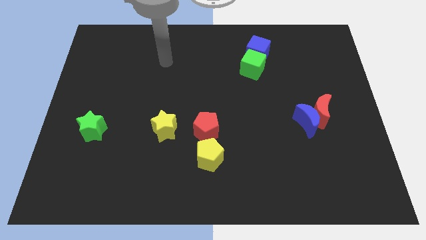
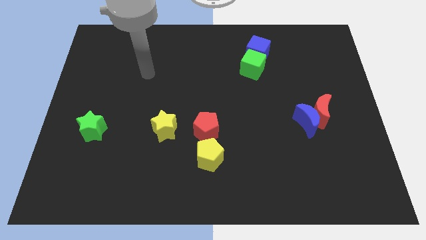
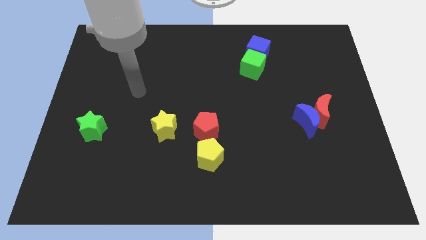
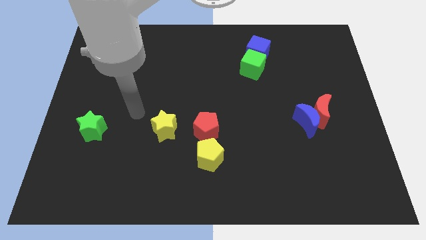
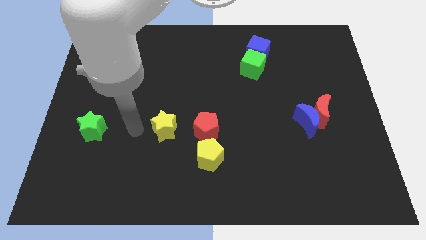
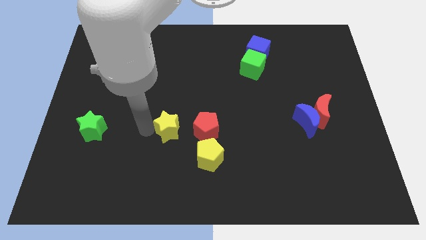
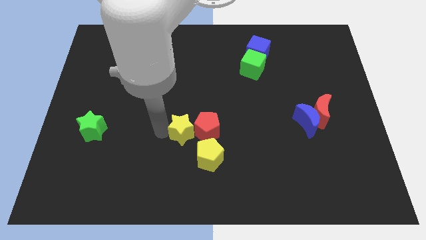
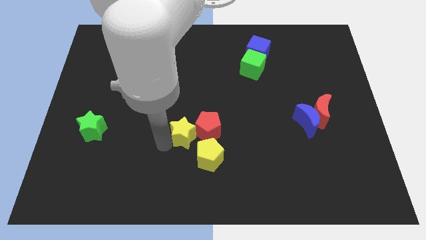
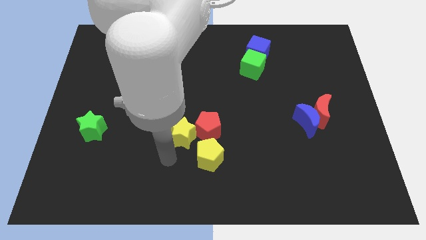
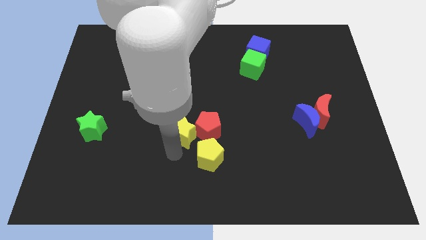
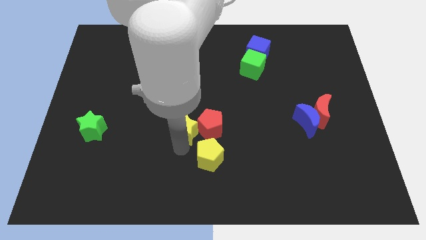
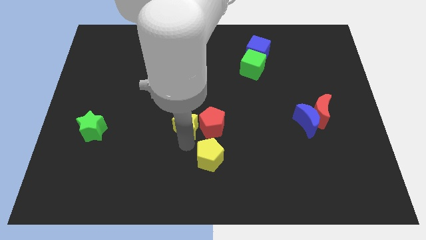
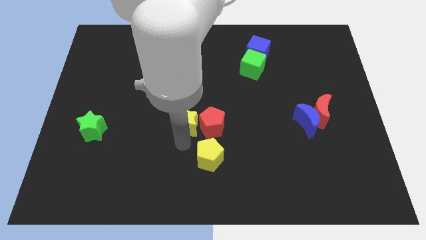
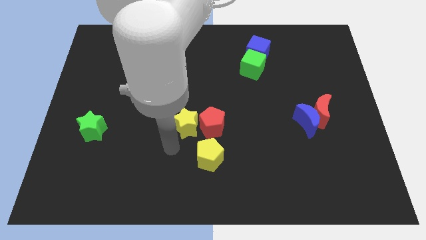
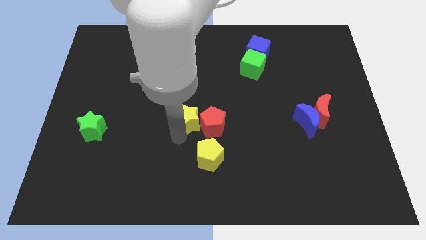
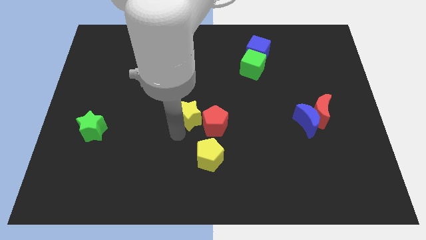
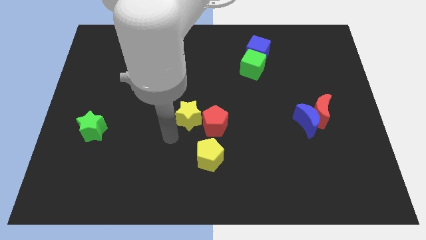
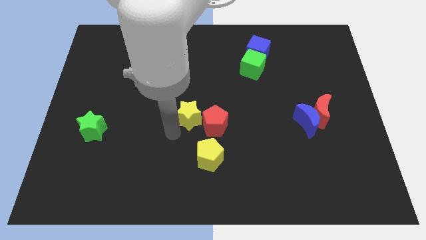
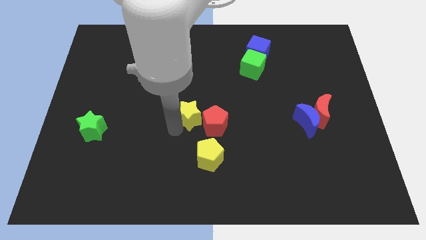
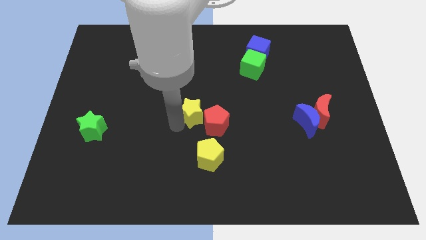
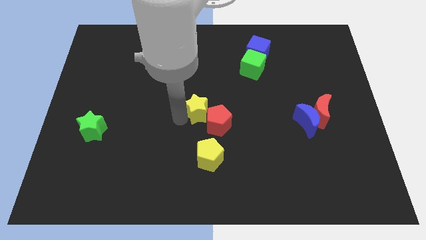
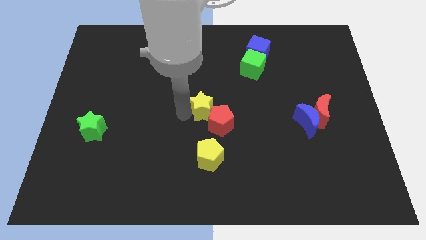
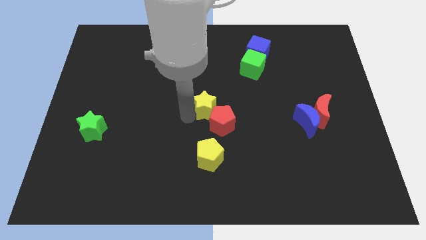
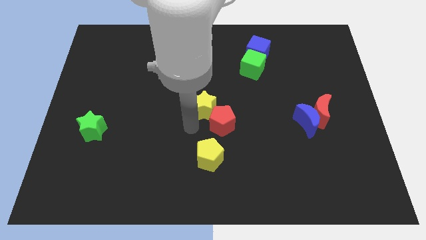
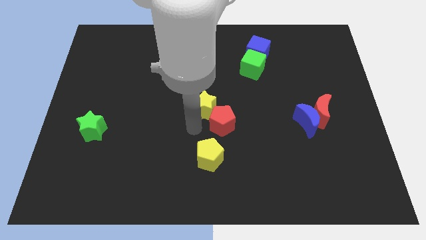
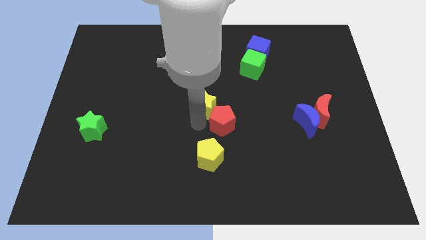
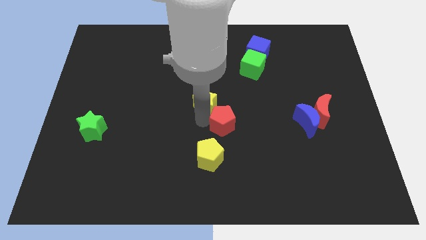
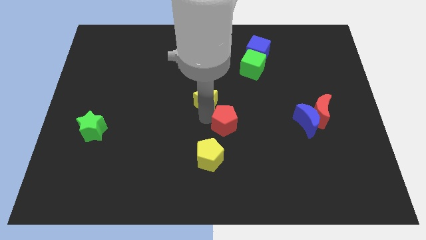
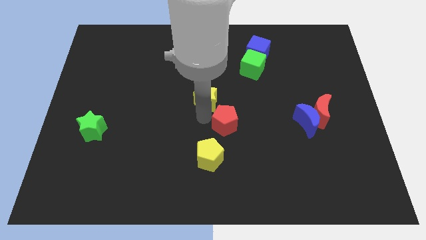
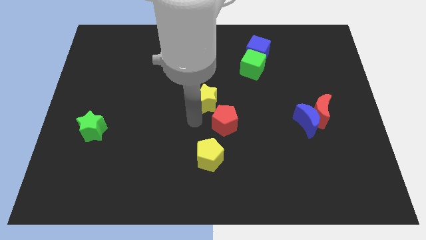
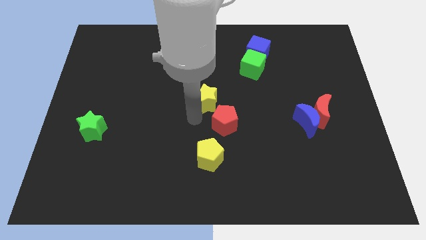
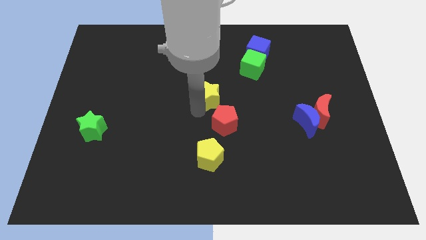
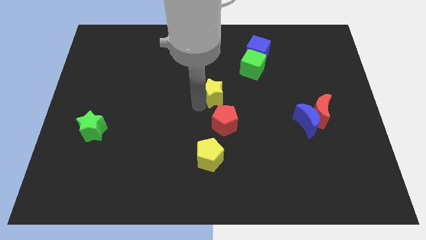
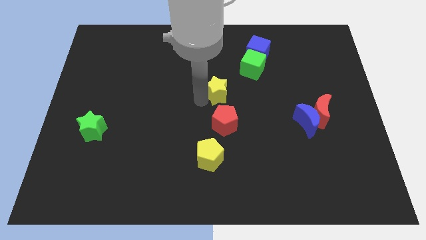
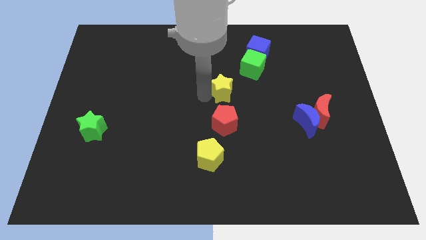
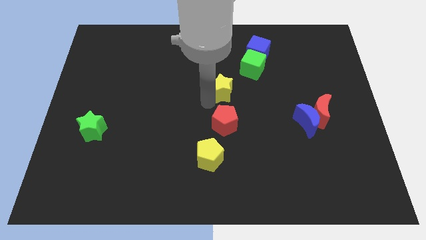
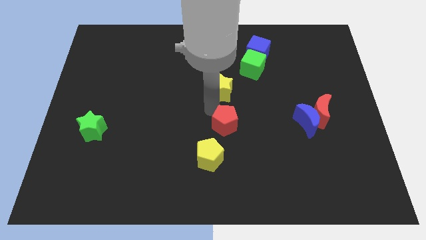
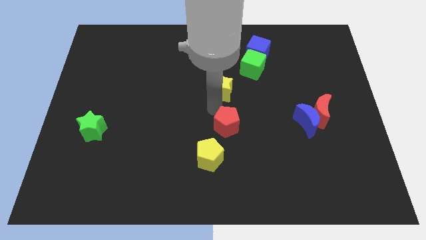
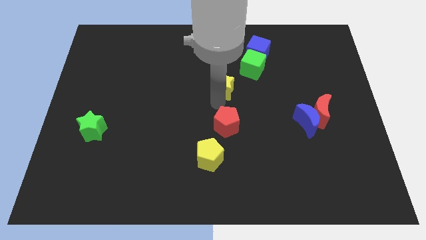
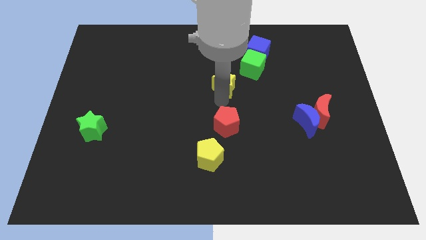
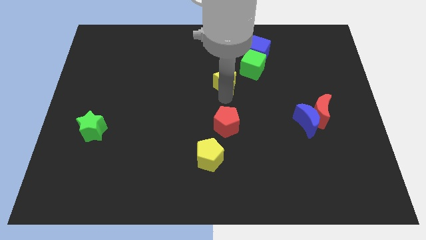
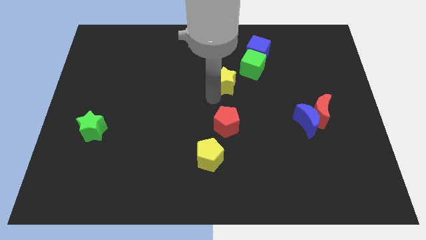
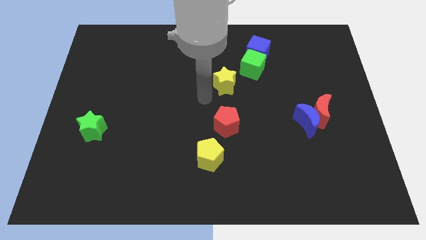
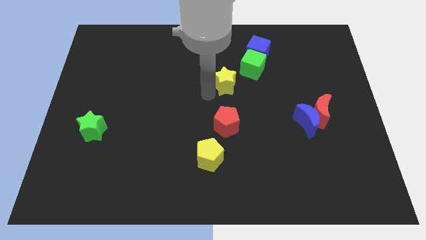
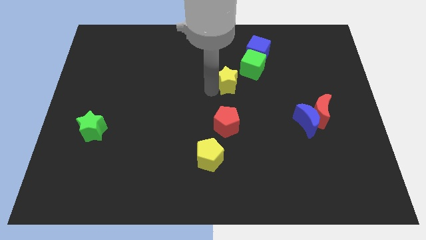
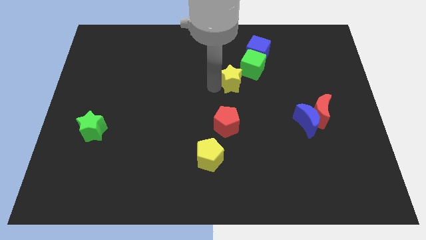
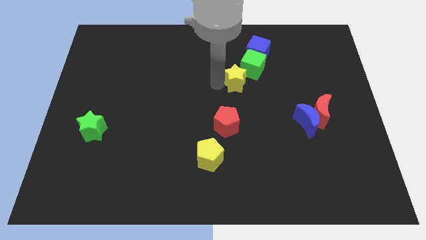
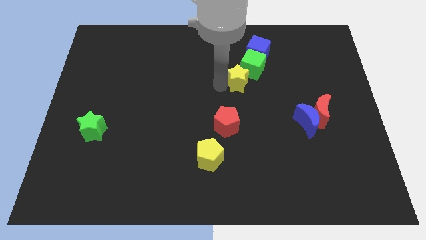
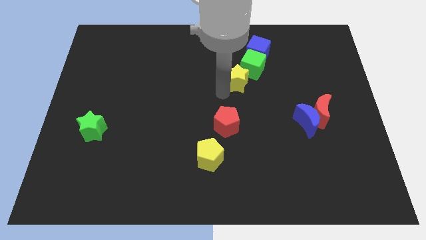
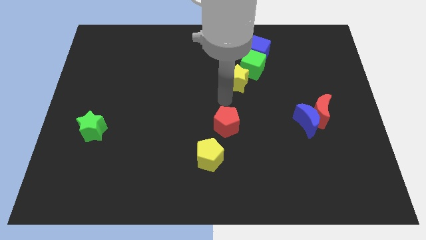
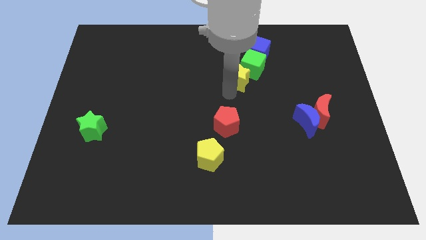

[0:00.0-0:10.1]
slide the yellow star to the green cube

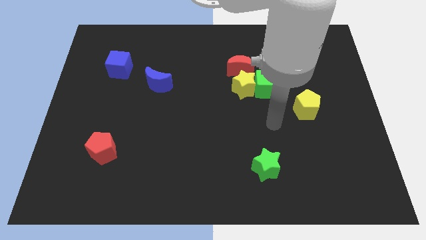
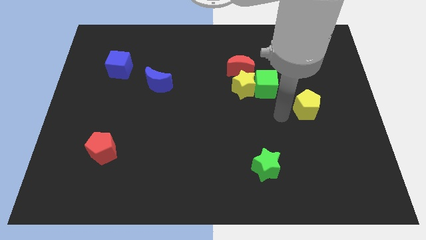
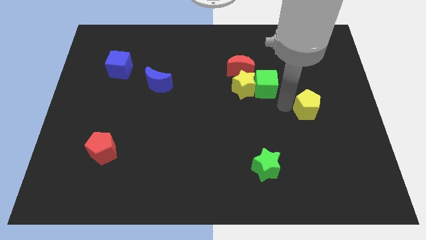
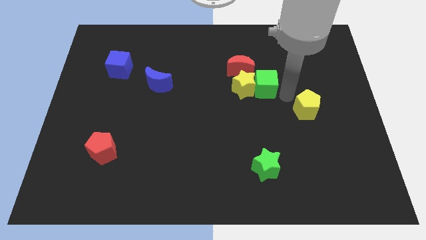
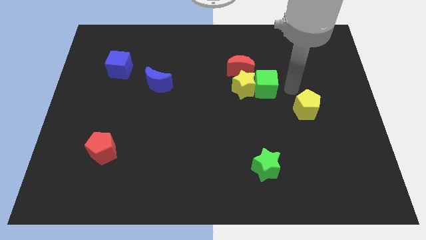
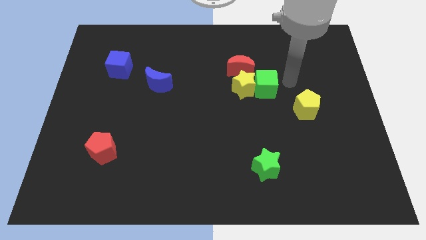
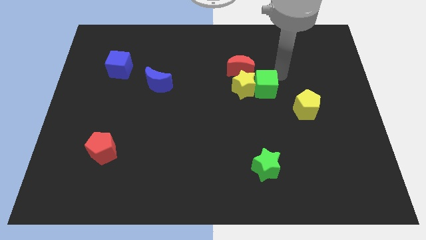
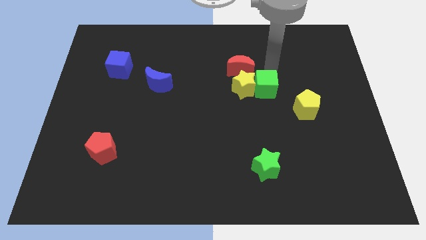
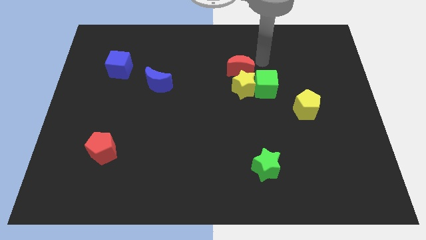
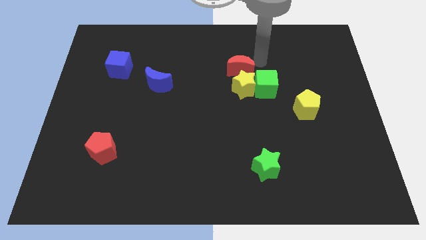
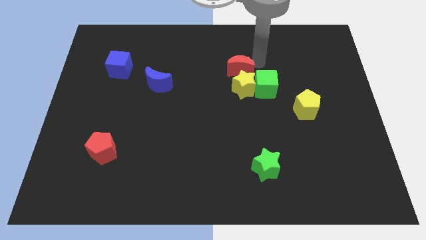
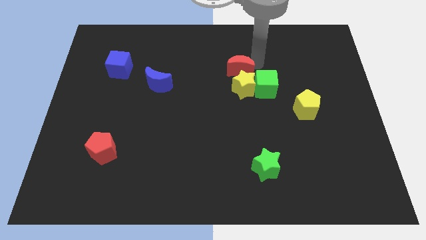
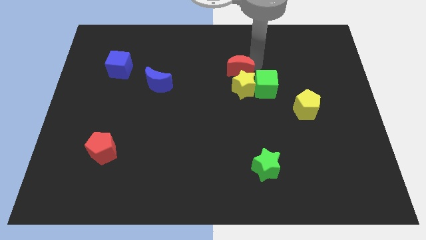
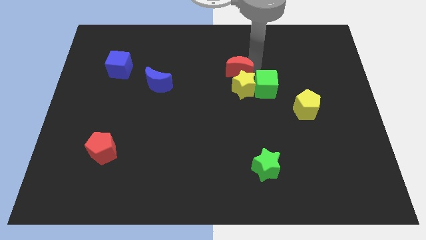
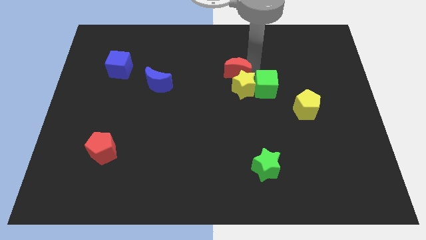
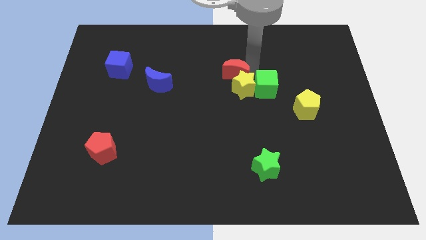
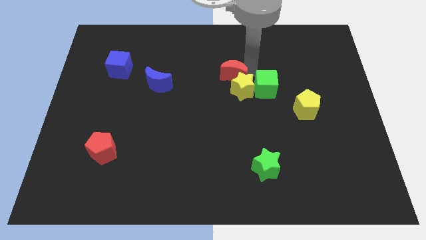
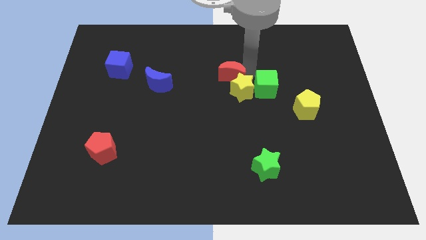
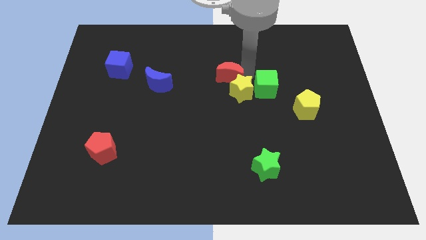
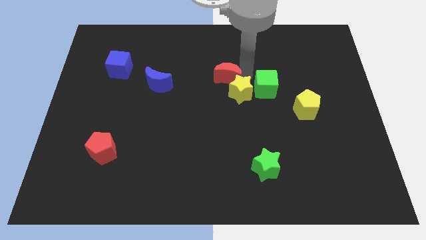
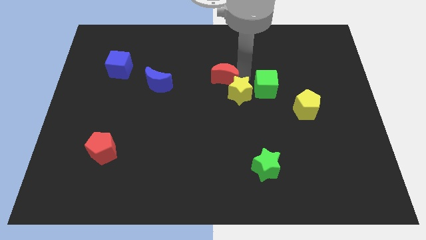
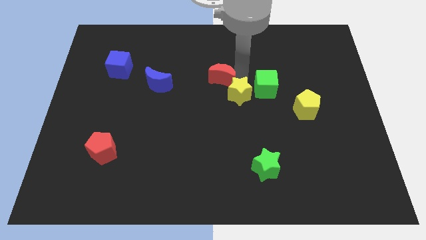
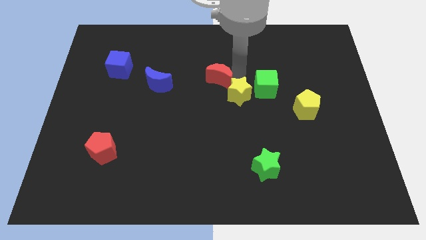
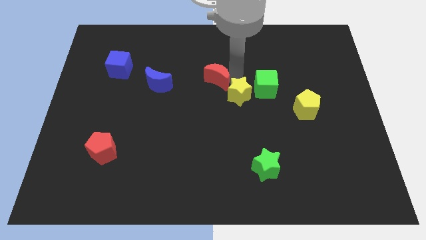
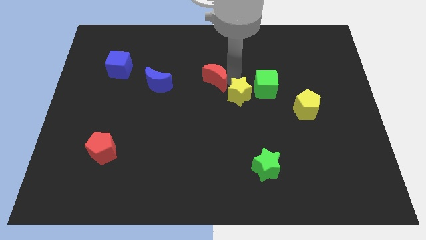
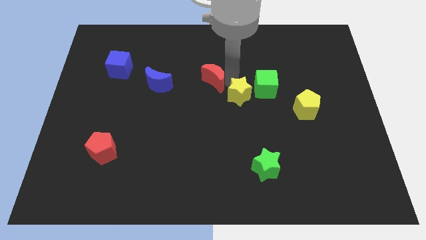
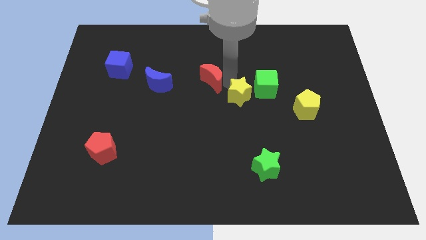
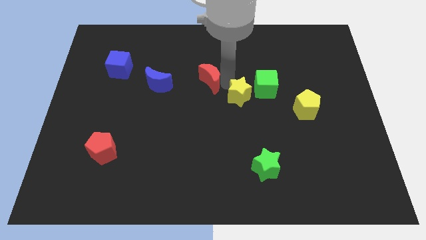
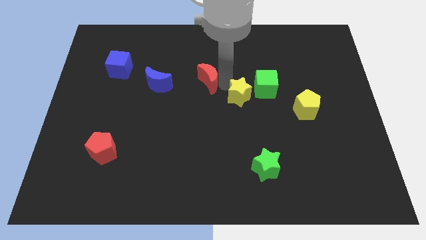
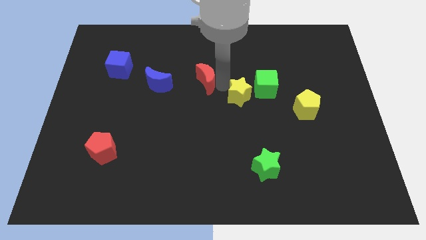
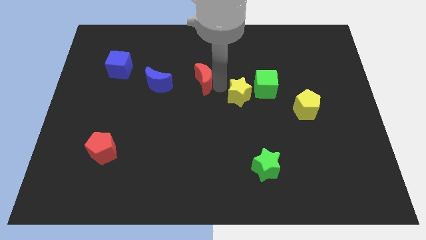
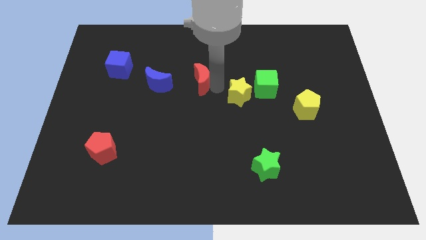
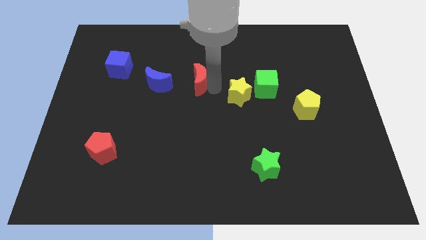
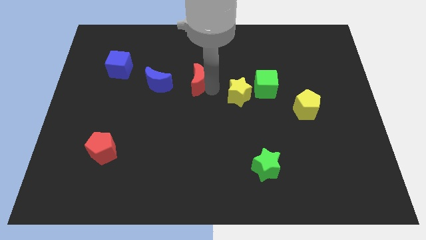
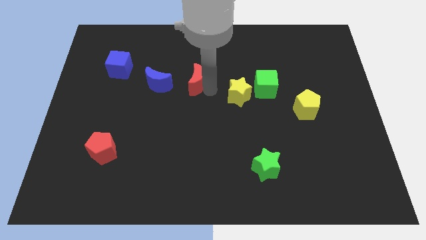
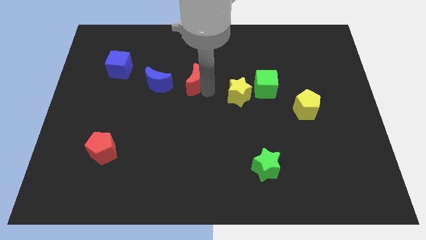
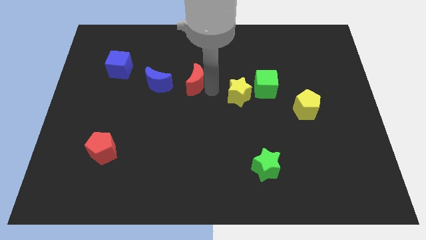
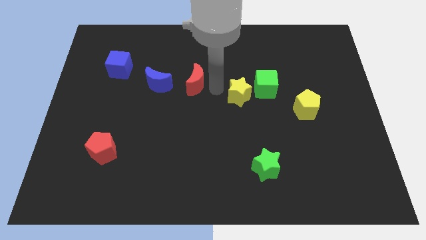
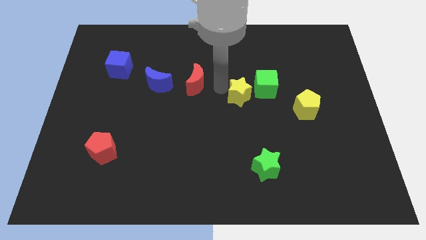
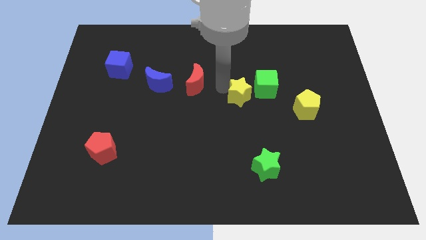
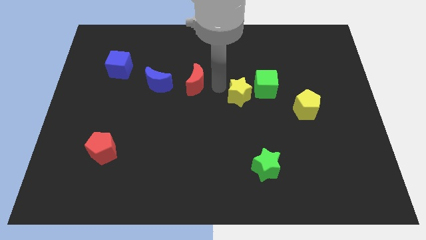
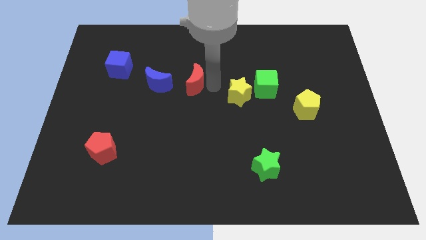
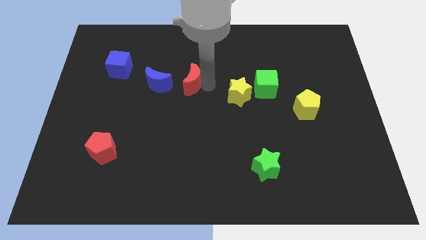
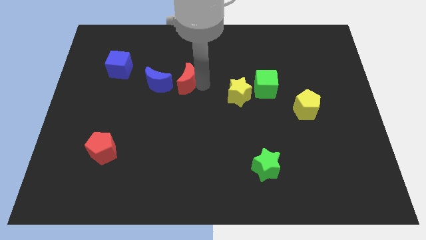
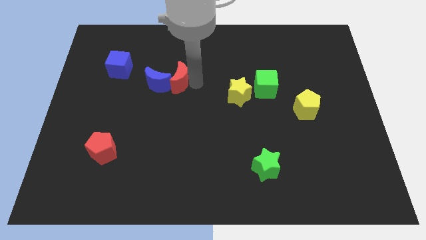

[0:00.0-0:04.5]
move the red moon next to the blue moon
